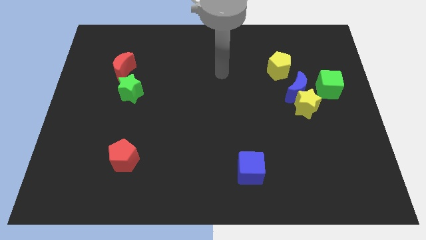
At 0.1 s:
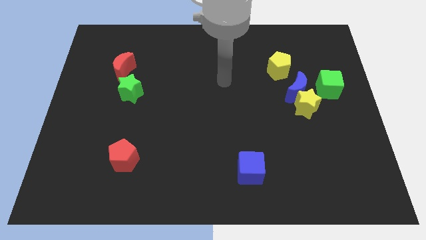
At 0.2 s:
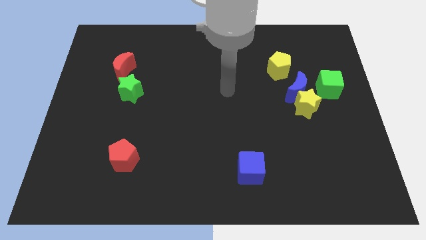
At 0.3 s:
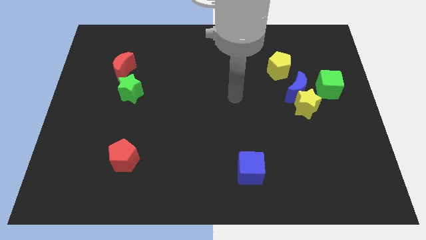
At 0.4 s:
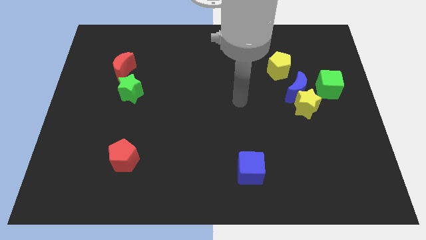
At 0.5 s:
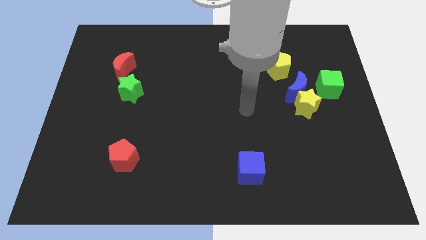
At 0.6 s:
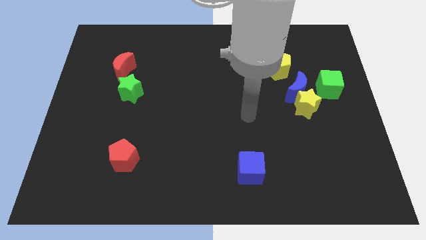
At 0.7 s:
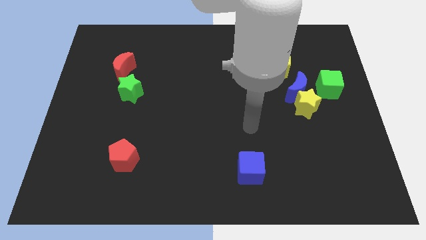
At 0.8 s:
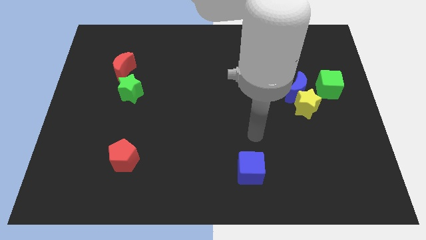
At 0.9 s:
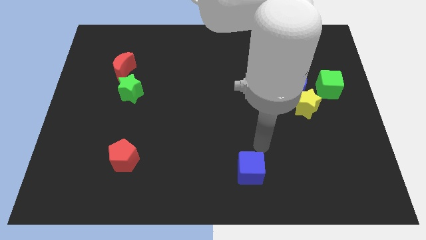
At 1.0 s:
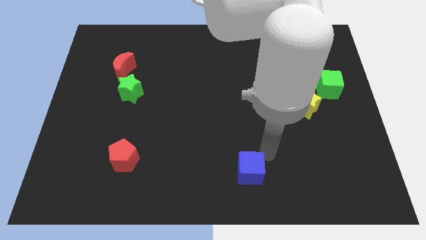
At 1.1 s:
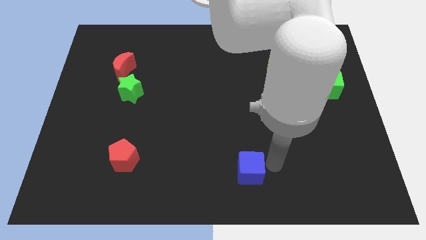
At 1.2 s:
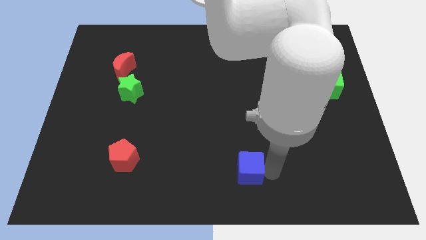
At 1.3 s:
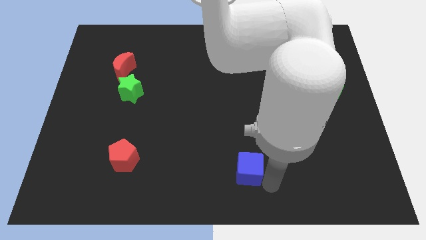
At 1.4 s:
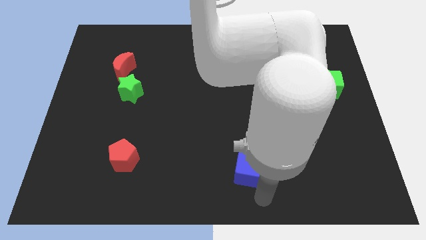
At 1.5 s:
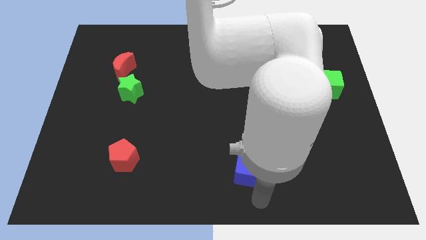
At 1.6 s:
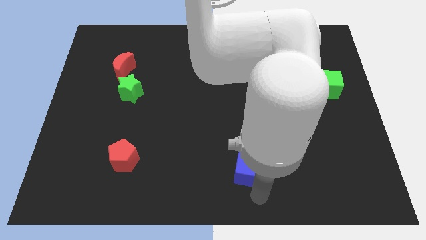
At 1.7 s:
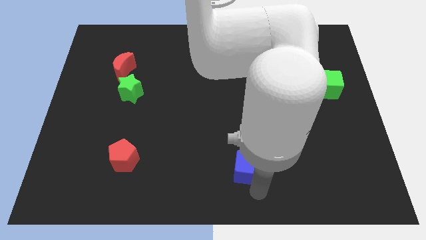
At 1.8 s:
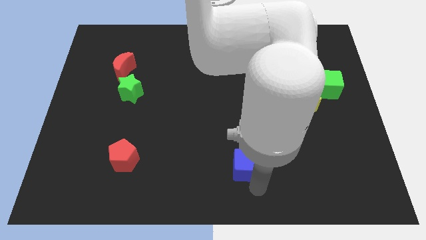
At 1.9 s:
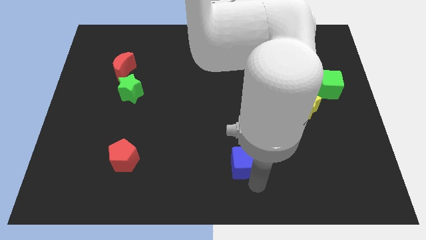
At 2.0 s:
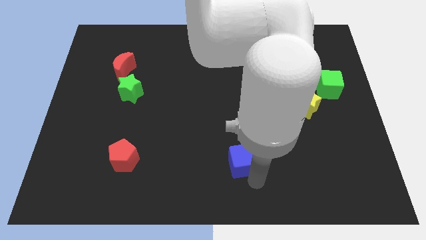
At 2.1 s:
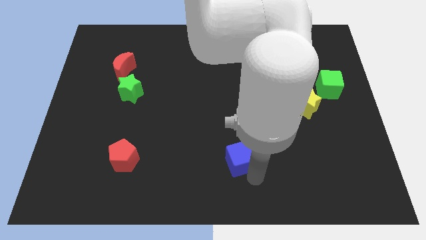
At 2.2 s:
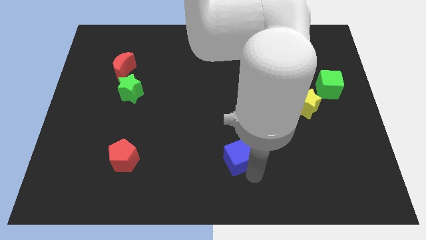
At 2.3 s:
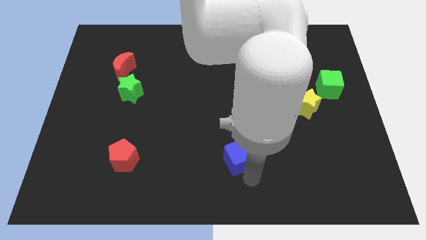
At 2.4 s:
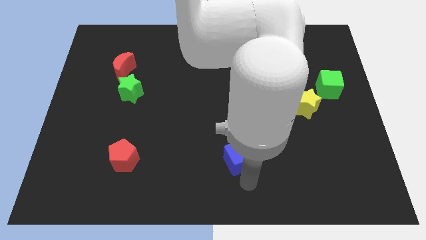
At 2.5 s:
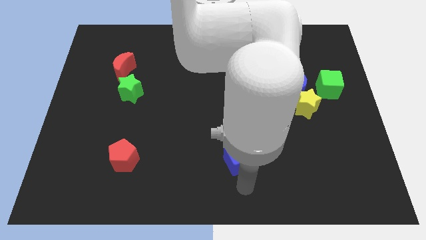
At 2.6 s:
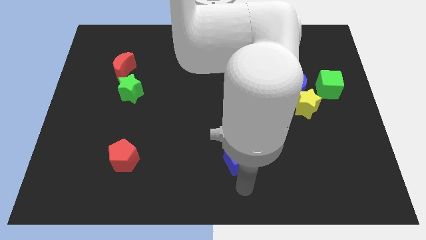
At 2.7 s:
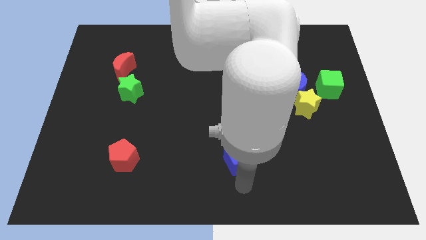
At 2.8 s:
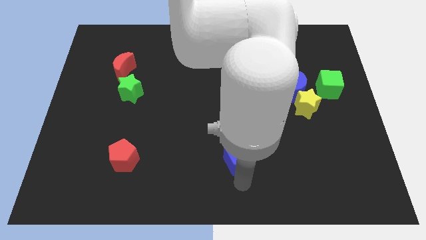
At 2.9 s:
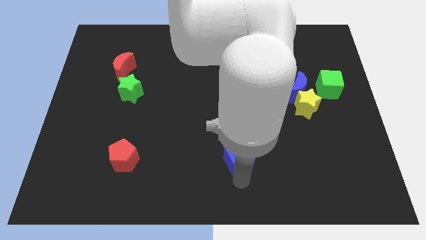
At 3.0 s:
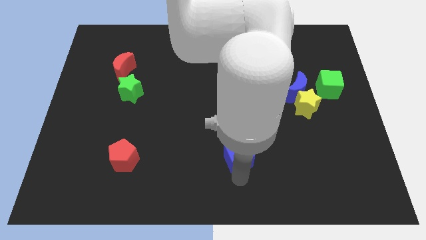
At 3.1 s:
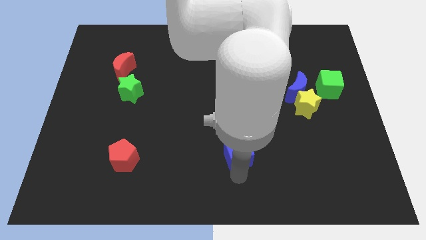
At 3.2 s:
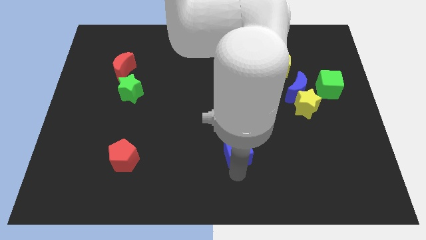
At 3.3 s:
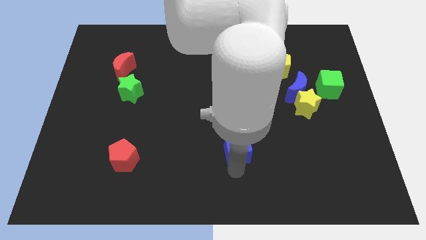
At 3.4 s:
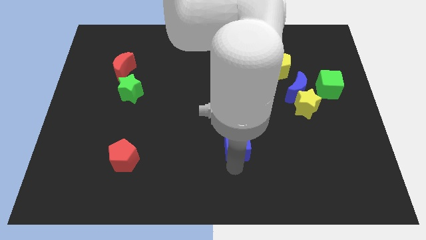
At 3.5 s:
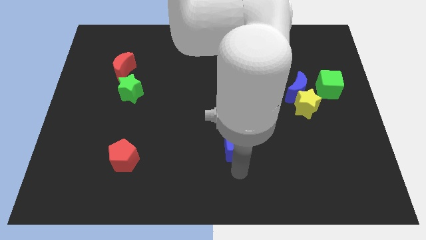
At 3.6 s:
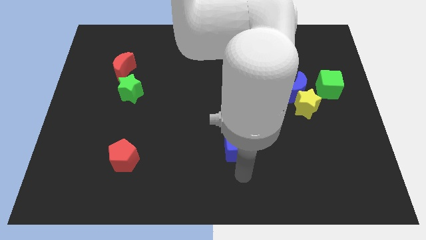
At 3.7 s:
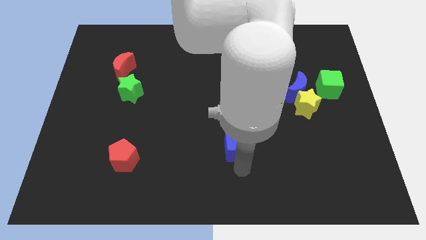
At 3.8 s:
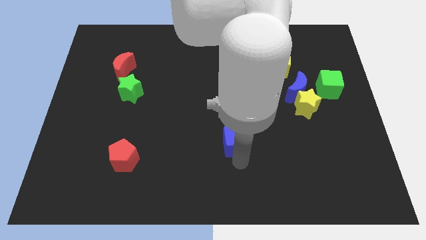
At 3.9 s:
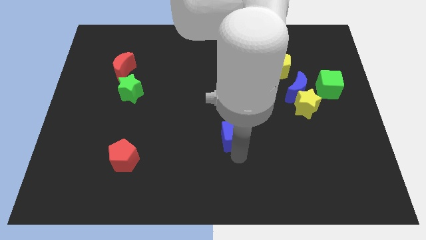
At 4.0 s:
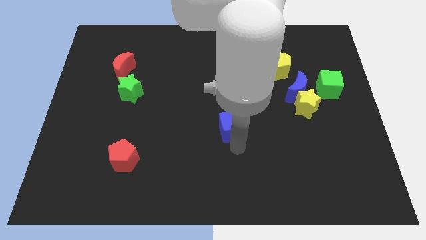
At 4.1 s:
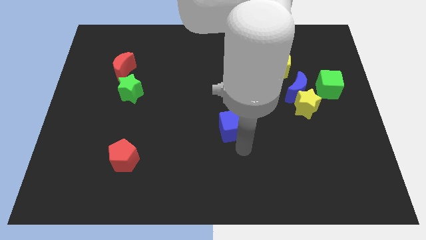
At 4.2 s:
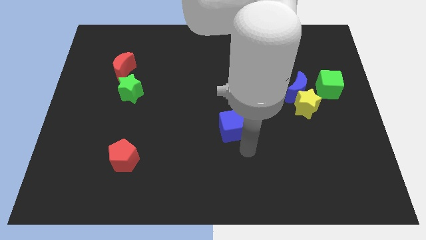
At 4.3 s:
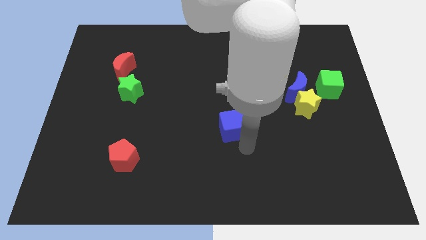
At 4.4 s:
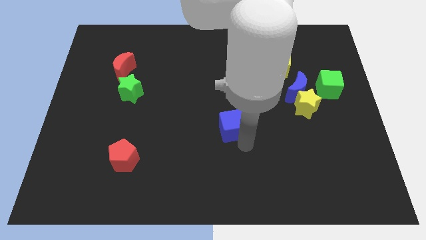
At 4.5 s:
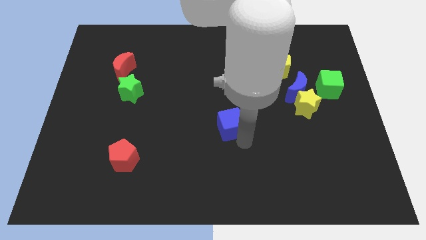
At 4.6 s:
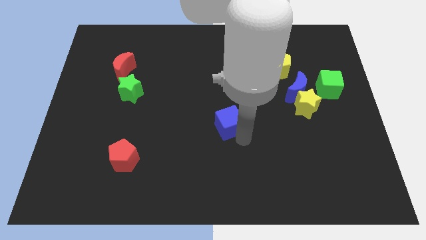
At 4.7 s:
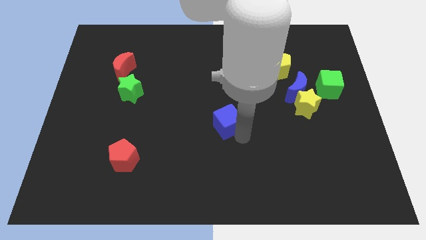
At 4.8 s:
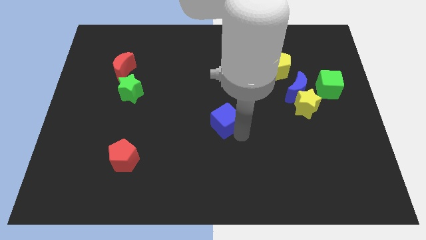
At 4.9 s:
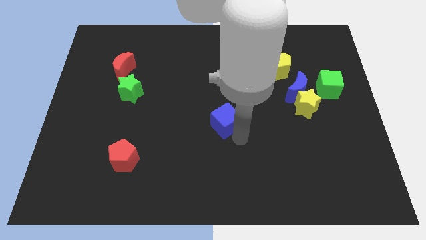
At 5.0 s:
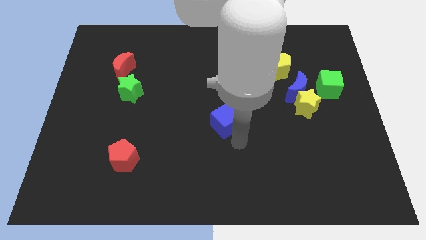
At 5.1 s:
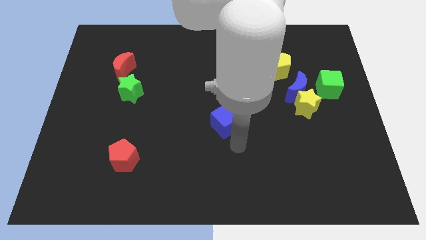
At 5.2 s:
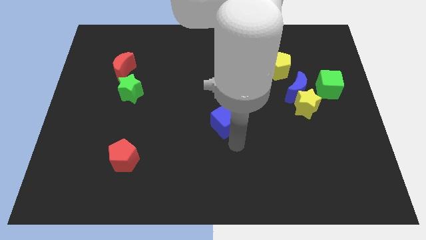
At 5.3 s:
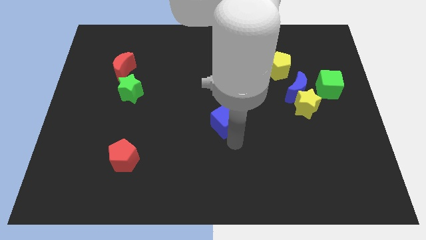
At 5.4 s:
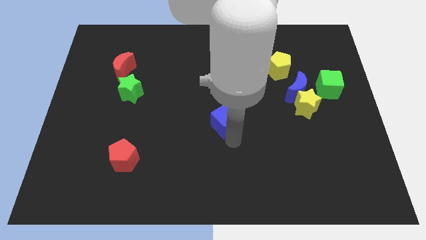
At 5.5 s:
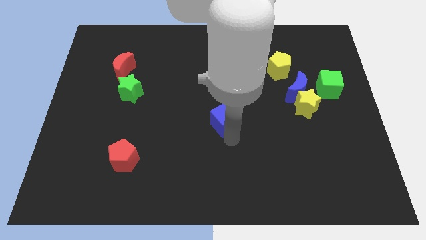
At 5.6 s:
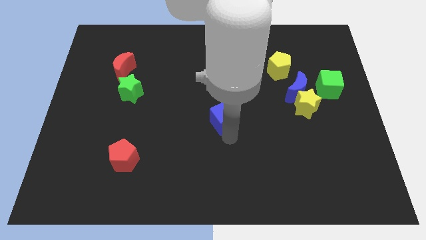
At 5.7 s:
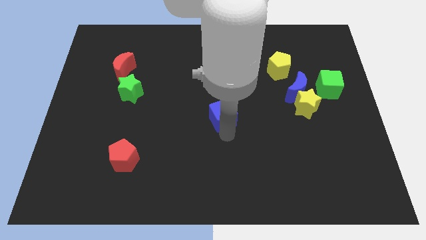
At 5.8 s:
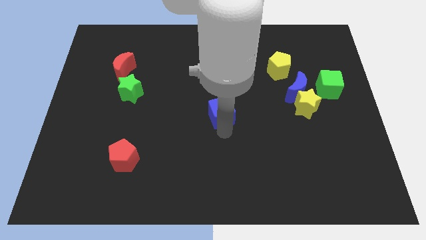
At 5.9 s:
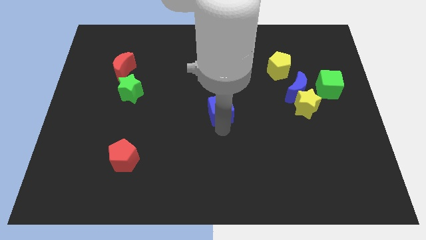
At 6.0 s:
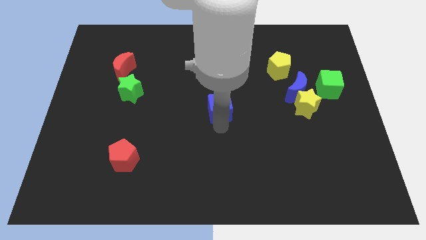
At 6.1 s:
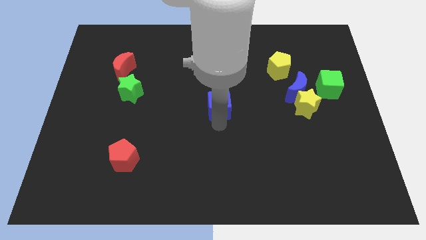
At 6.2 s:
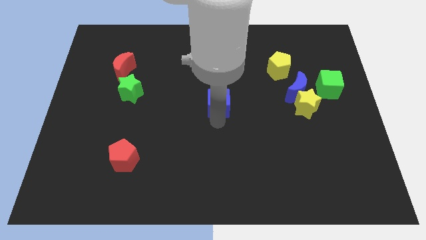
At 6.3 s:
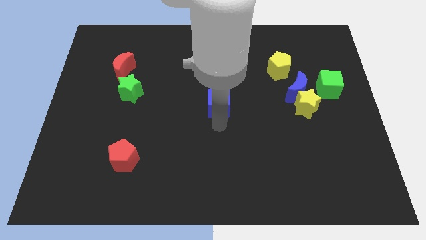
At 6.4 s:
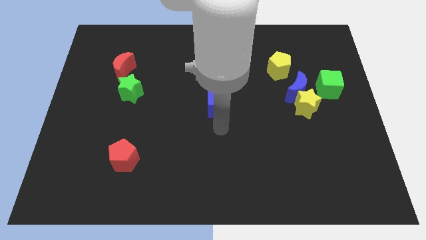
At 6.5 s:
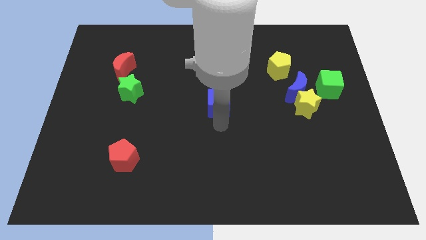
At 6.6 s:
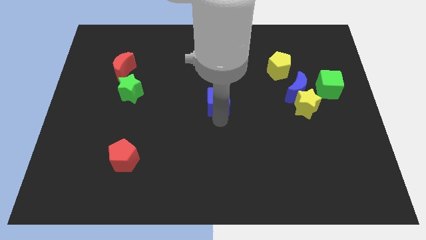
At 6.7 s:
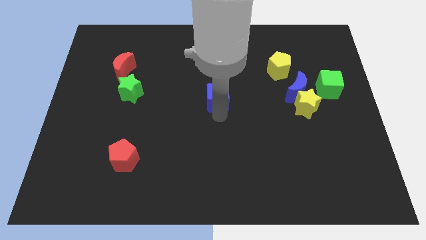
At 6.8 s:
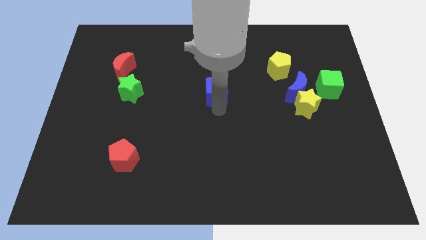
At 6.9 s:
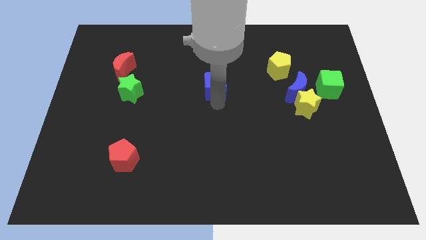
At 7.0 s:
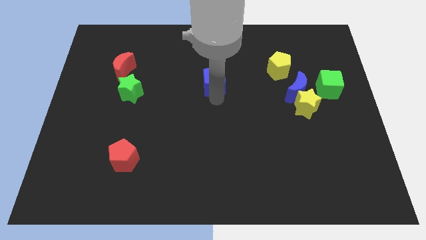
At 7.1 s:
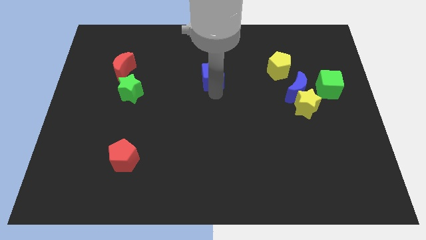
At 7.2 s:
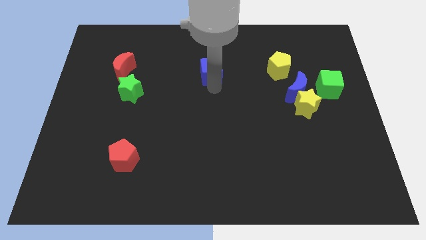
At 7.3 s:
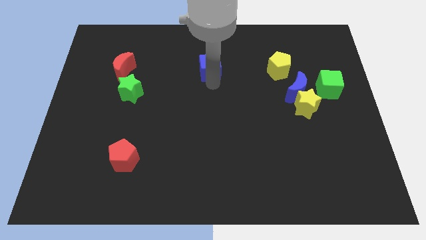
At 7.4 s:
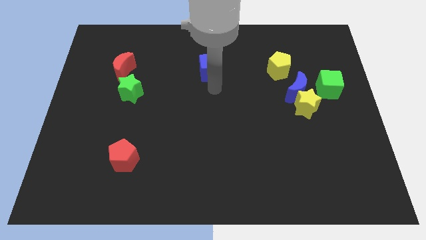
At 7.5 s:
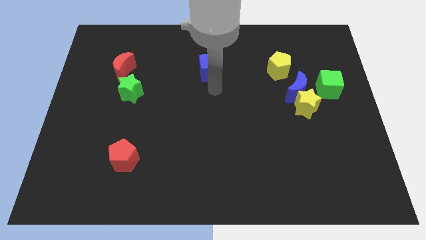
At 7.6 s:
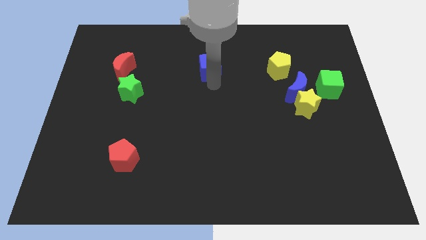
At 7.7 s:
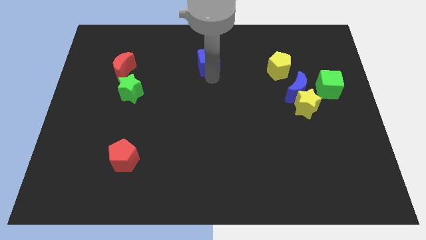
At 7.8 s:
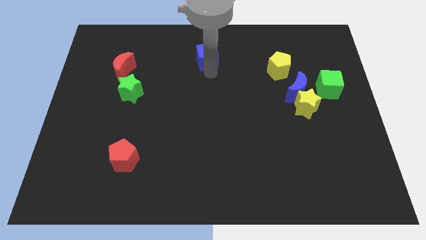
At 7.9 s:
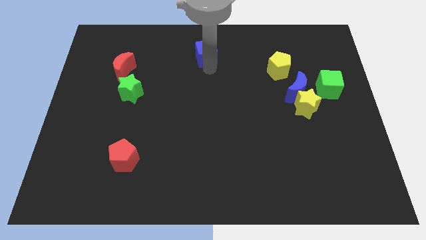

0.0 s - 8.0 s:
move the blue cube to the top
